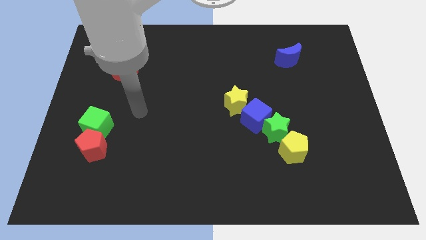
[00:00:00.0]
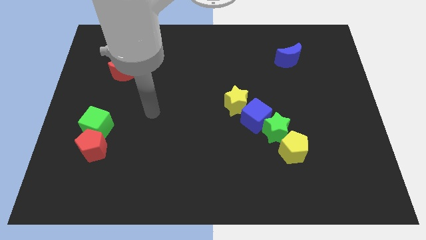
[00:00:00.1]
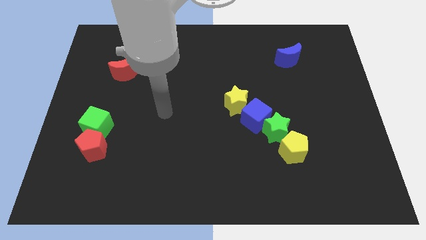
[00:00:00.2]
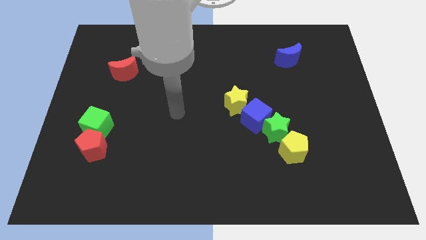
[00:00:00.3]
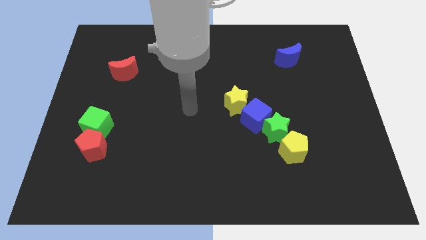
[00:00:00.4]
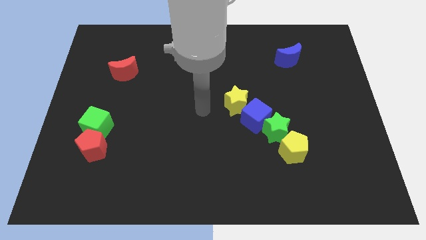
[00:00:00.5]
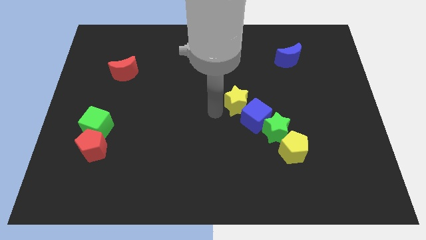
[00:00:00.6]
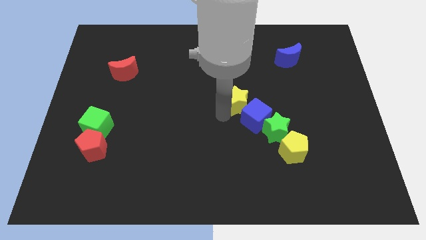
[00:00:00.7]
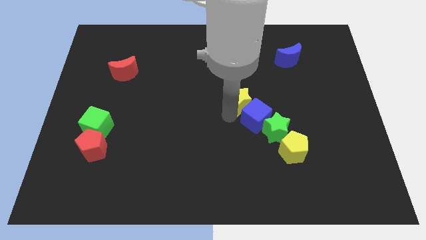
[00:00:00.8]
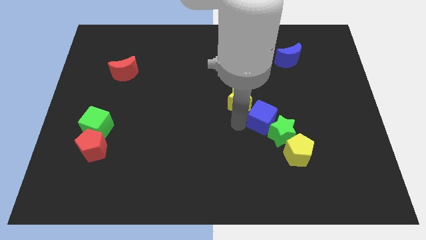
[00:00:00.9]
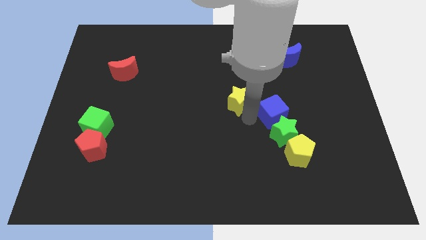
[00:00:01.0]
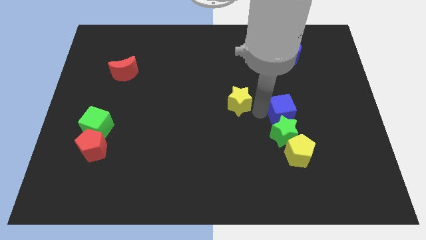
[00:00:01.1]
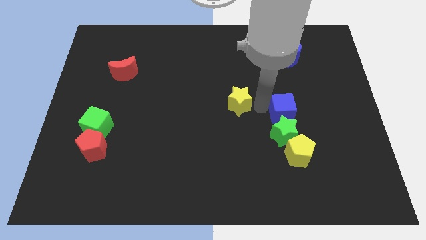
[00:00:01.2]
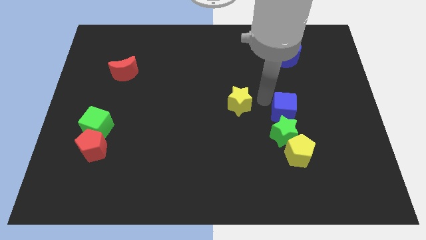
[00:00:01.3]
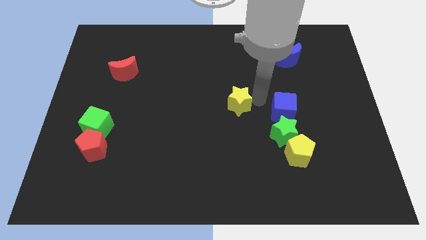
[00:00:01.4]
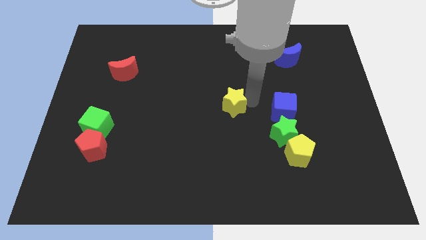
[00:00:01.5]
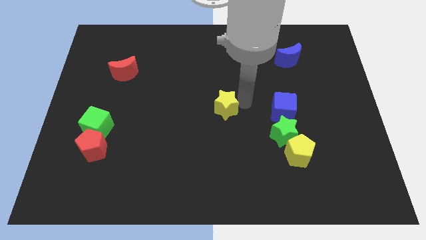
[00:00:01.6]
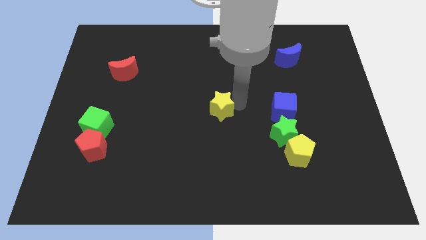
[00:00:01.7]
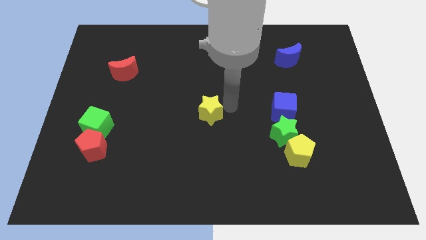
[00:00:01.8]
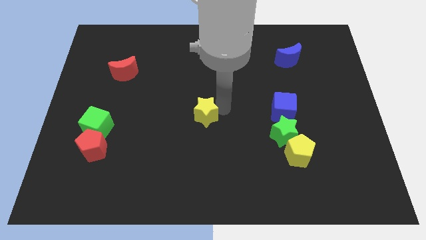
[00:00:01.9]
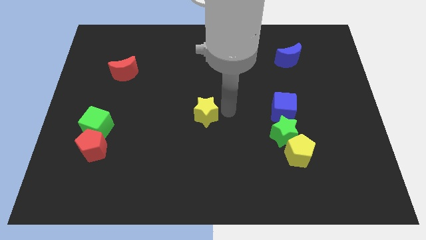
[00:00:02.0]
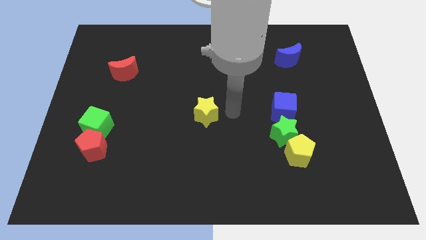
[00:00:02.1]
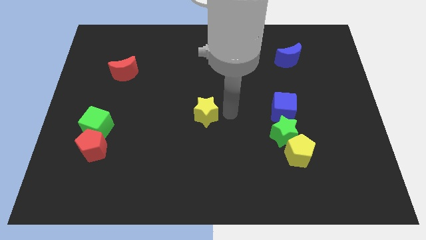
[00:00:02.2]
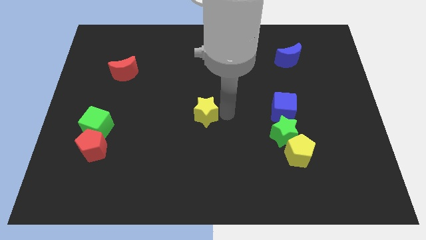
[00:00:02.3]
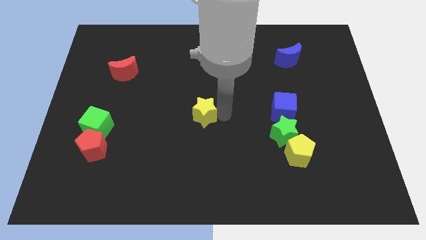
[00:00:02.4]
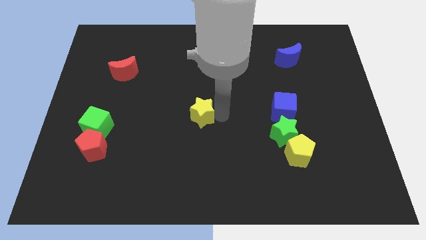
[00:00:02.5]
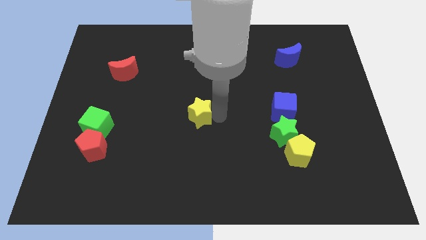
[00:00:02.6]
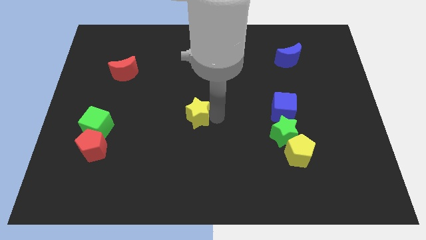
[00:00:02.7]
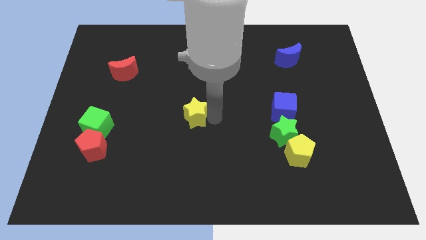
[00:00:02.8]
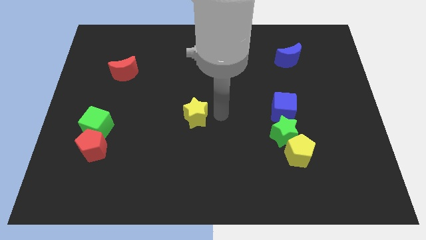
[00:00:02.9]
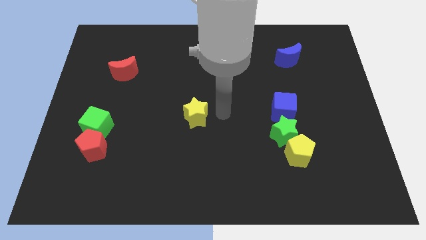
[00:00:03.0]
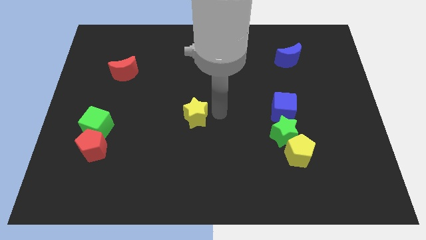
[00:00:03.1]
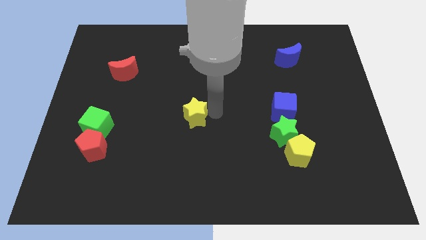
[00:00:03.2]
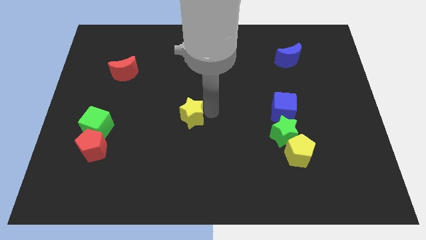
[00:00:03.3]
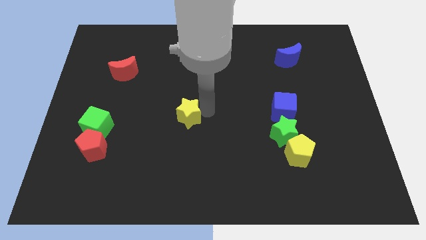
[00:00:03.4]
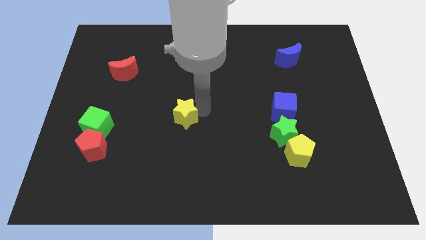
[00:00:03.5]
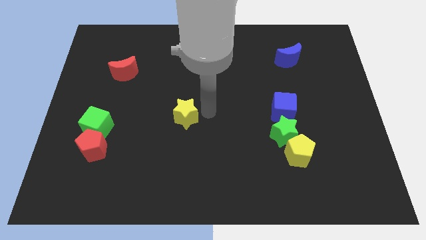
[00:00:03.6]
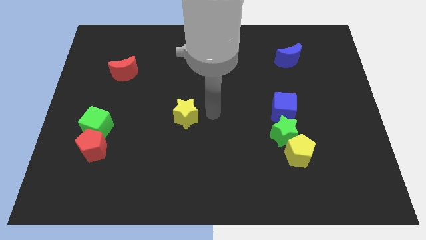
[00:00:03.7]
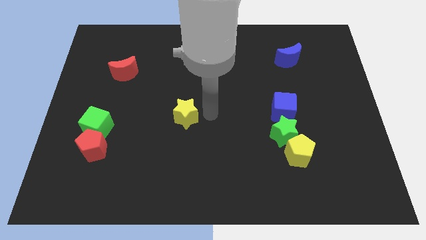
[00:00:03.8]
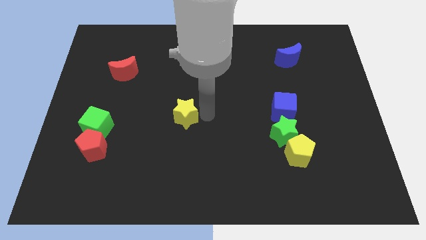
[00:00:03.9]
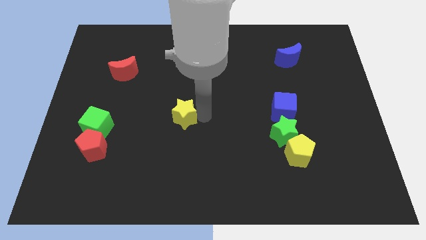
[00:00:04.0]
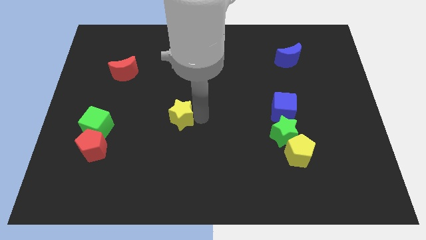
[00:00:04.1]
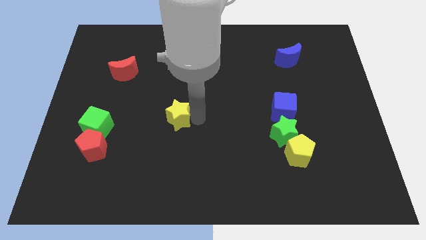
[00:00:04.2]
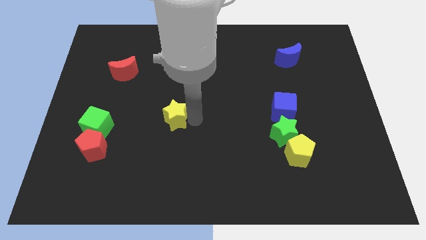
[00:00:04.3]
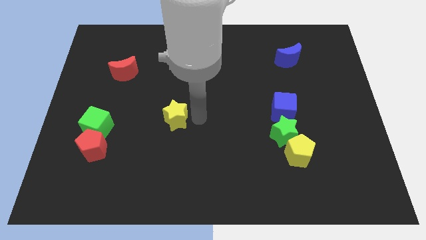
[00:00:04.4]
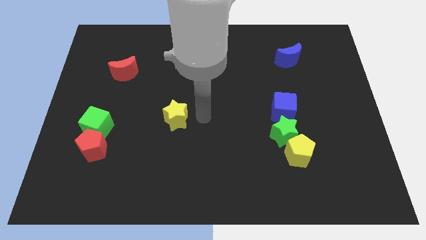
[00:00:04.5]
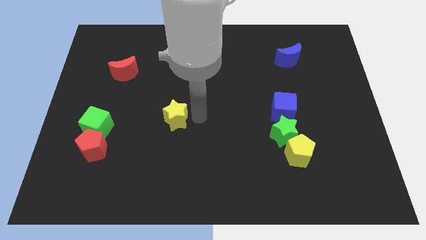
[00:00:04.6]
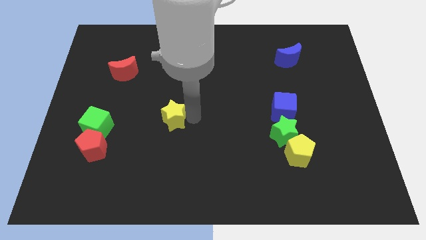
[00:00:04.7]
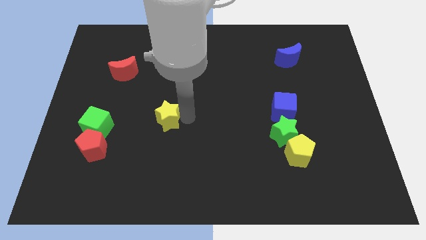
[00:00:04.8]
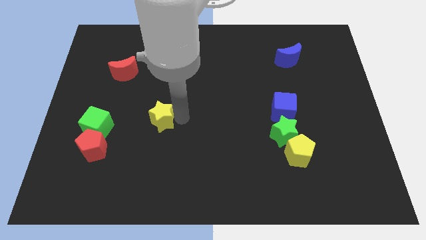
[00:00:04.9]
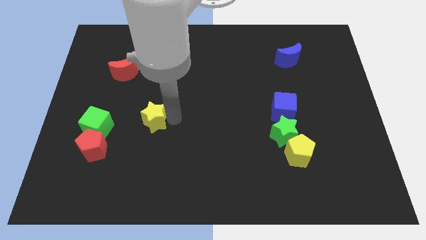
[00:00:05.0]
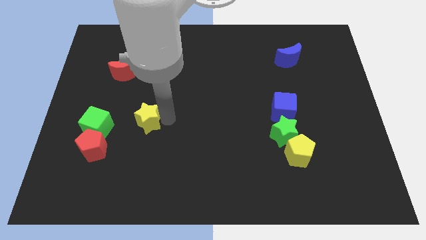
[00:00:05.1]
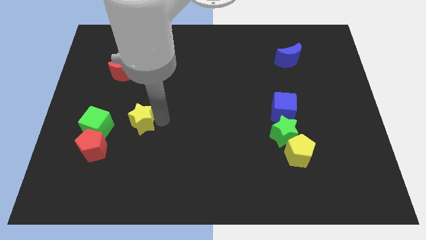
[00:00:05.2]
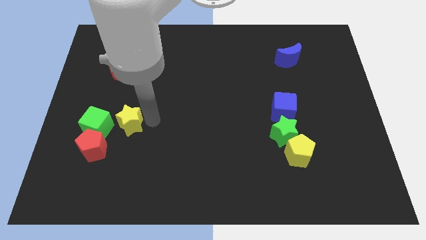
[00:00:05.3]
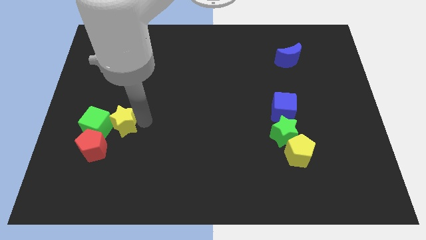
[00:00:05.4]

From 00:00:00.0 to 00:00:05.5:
move the yellow star close to the green cube

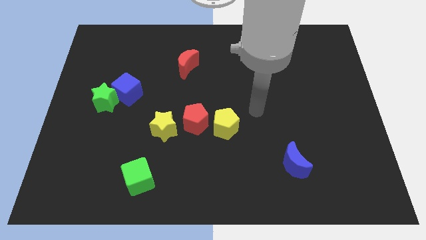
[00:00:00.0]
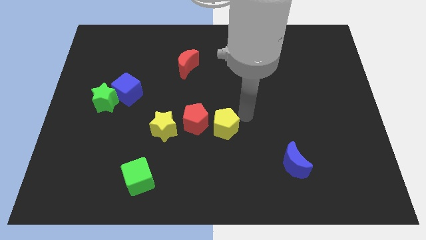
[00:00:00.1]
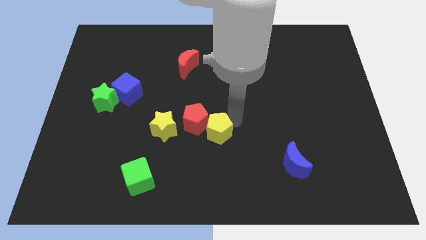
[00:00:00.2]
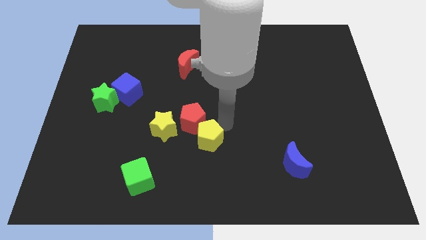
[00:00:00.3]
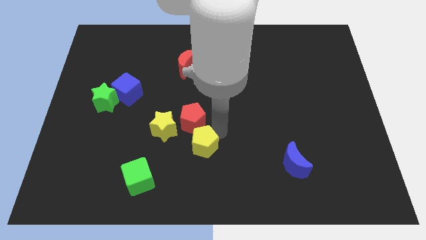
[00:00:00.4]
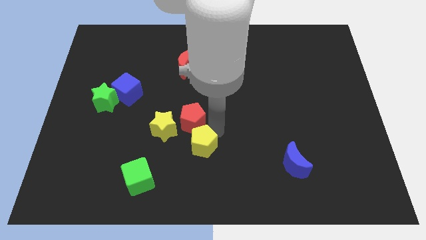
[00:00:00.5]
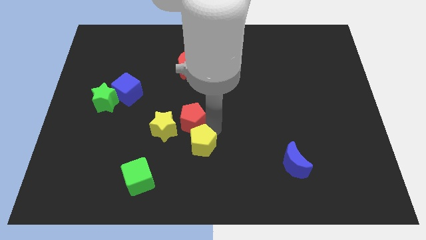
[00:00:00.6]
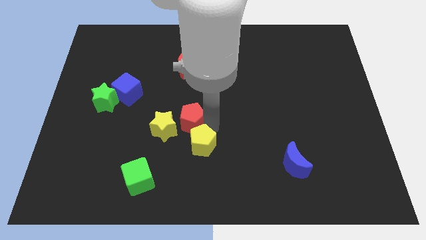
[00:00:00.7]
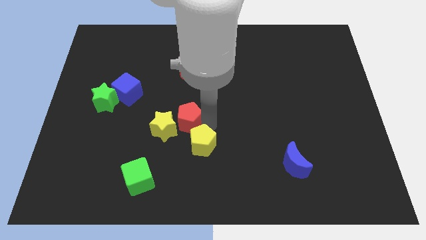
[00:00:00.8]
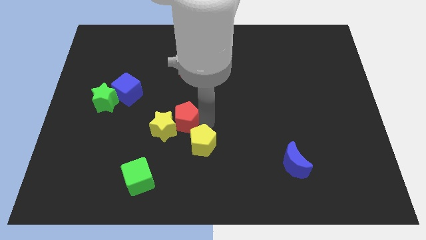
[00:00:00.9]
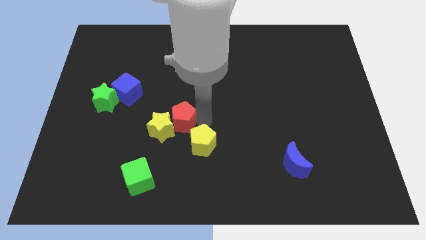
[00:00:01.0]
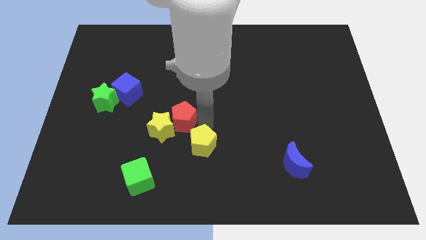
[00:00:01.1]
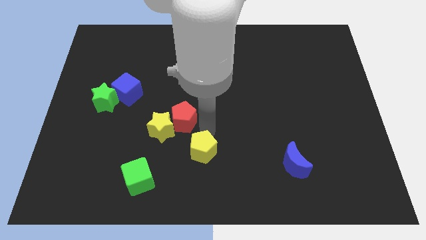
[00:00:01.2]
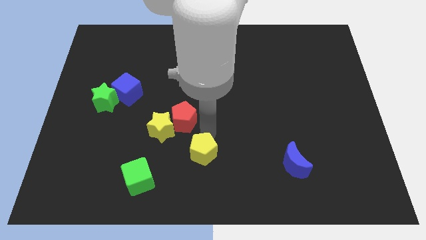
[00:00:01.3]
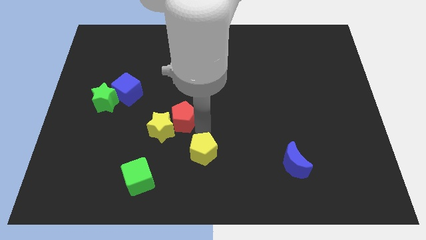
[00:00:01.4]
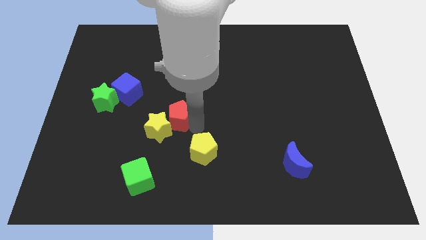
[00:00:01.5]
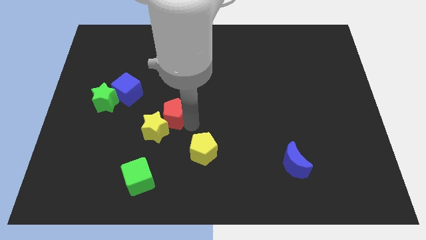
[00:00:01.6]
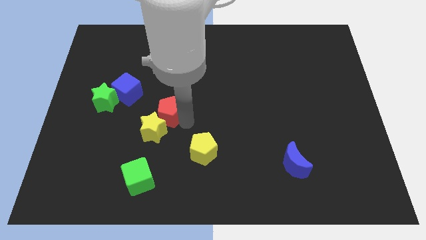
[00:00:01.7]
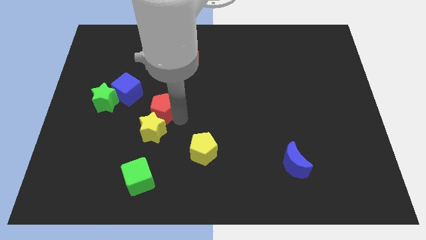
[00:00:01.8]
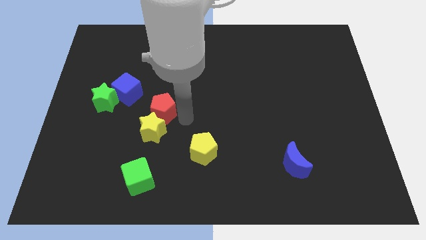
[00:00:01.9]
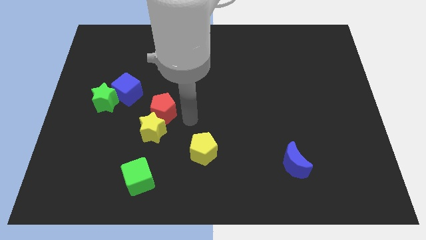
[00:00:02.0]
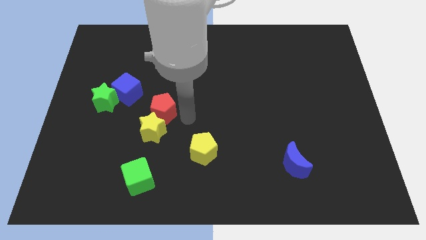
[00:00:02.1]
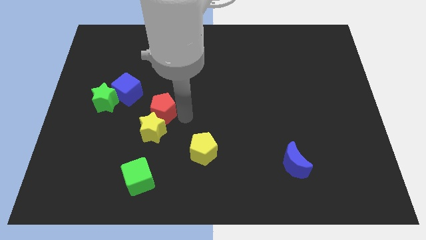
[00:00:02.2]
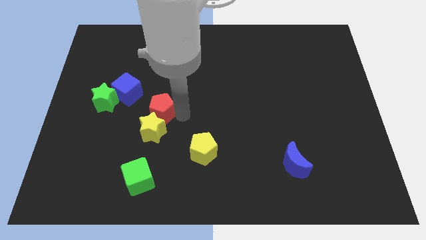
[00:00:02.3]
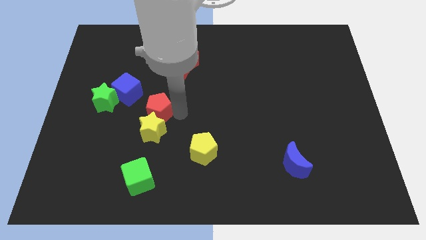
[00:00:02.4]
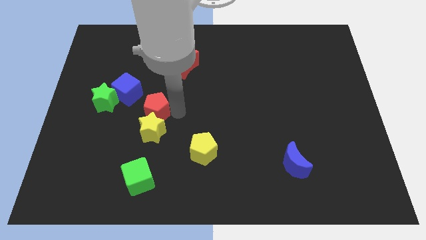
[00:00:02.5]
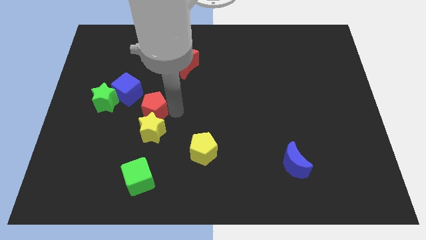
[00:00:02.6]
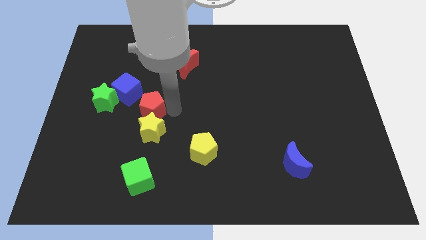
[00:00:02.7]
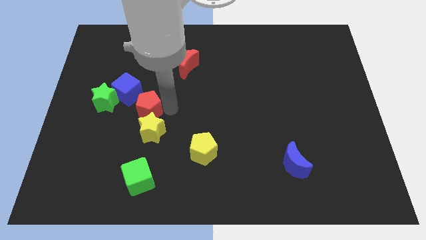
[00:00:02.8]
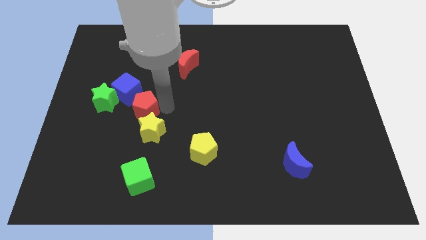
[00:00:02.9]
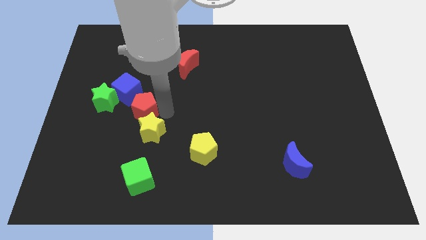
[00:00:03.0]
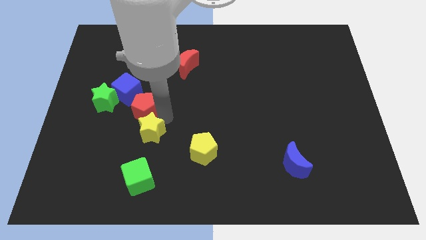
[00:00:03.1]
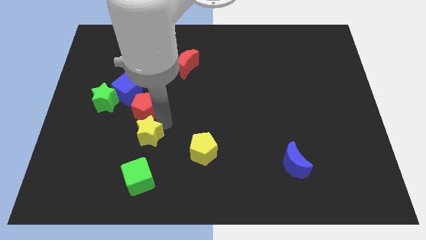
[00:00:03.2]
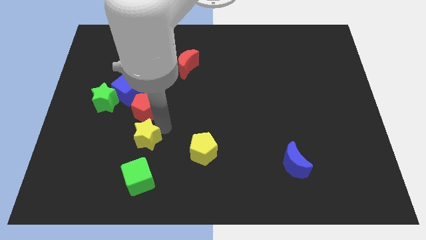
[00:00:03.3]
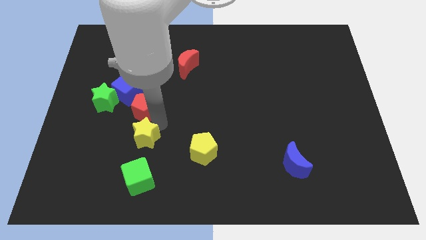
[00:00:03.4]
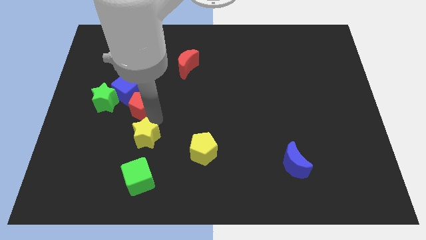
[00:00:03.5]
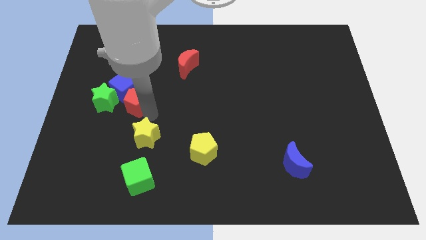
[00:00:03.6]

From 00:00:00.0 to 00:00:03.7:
put the red pentagon towards the blue cube
